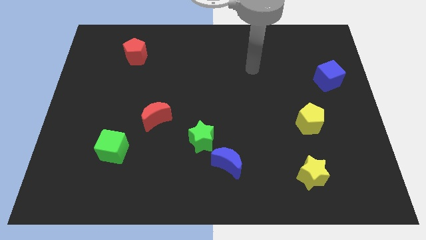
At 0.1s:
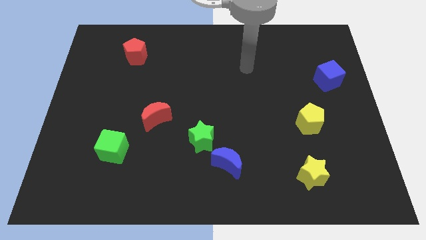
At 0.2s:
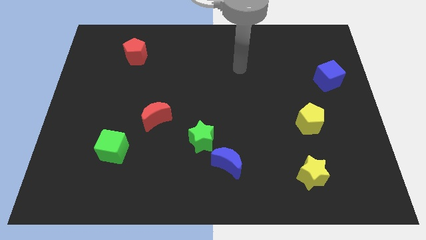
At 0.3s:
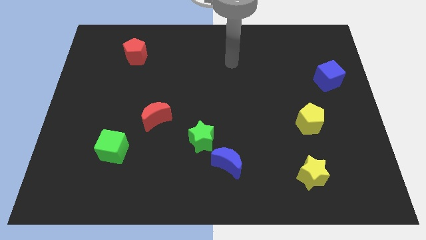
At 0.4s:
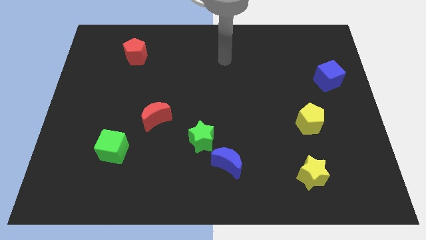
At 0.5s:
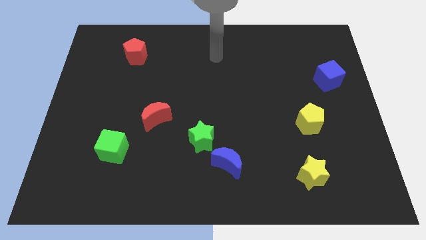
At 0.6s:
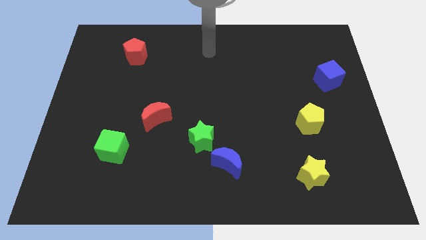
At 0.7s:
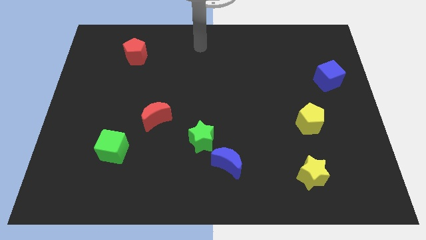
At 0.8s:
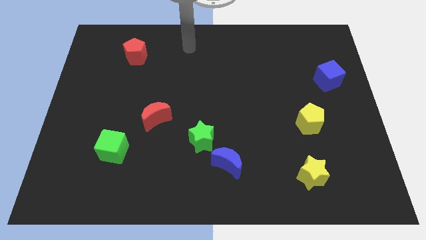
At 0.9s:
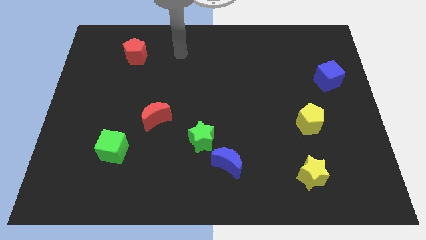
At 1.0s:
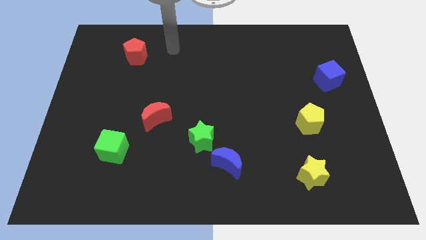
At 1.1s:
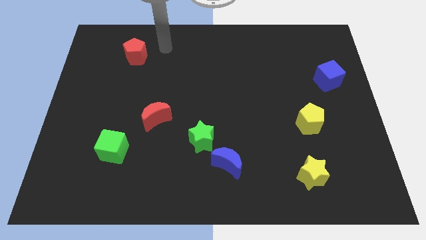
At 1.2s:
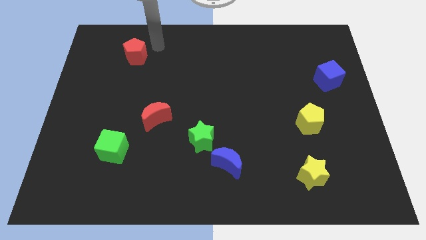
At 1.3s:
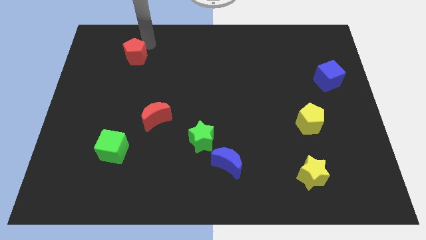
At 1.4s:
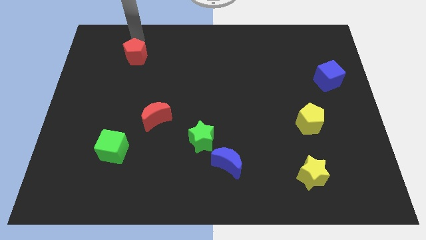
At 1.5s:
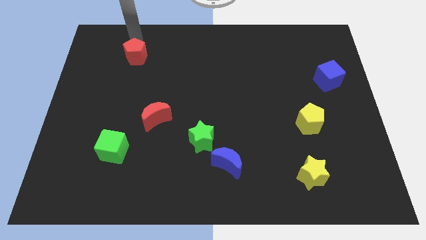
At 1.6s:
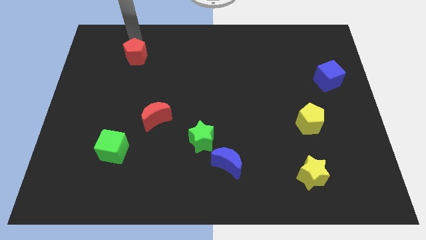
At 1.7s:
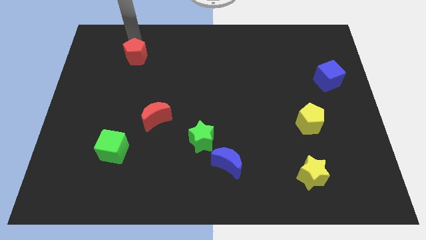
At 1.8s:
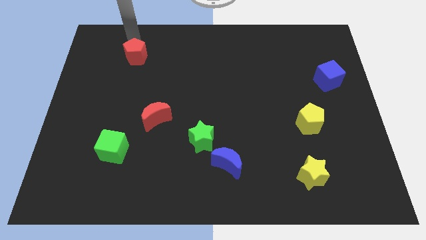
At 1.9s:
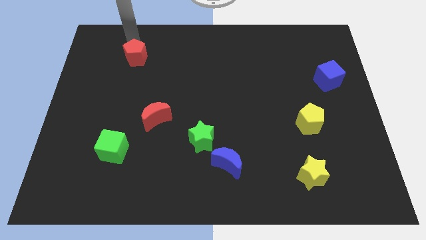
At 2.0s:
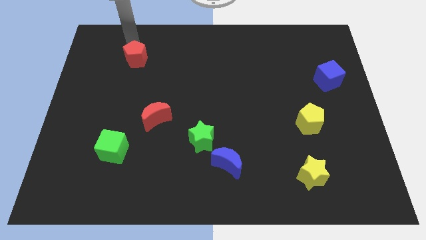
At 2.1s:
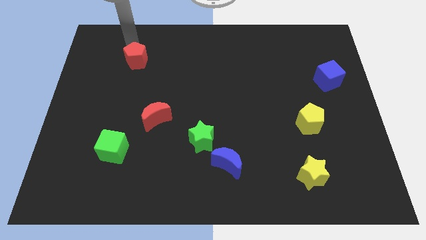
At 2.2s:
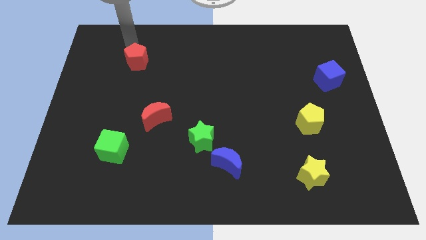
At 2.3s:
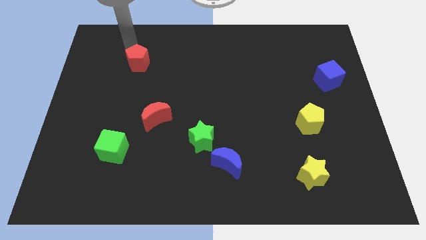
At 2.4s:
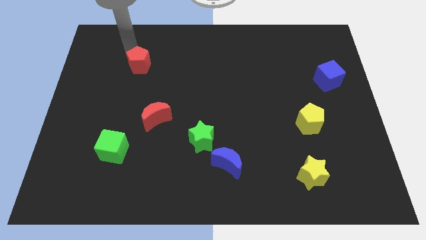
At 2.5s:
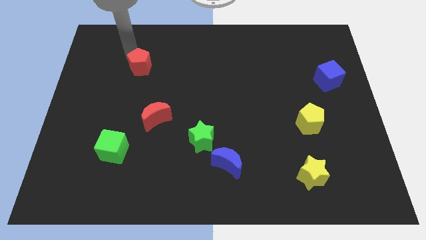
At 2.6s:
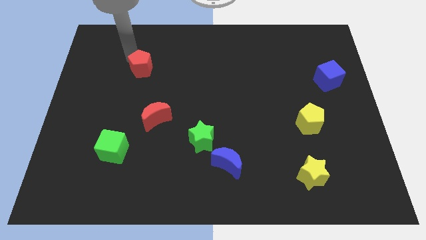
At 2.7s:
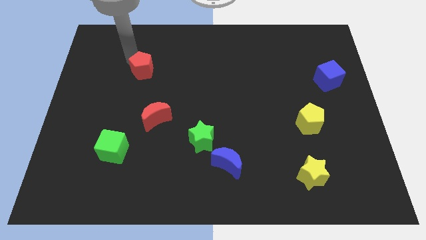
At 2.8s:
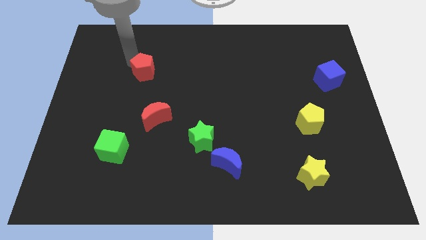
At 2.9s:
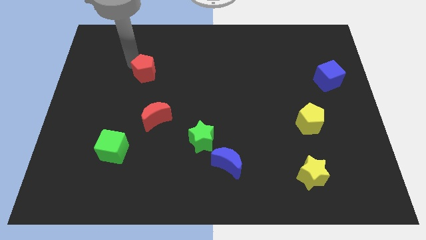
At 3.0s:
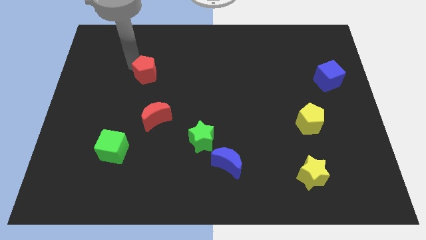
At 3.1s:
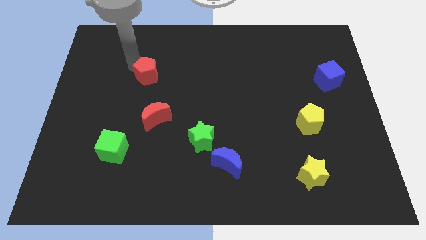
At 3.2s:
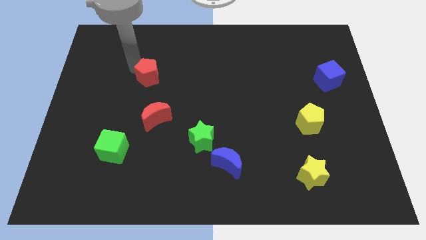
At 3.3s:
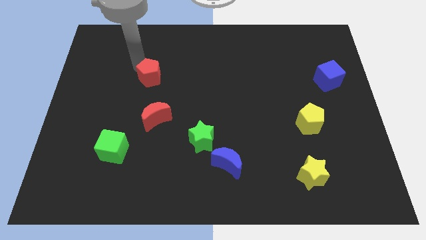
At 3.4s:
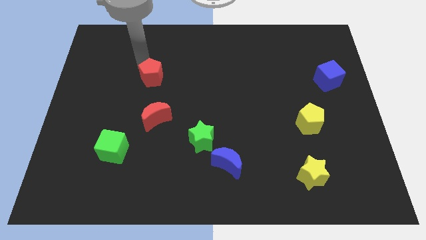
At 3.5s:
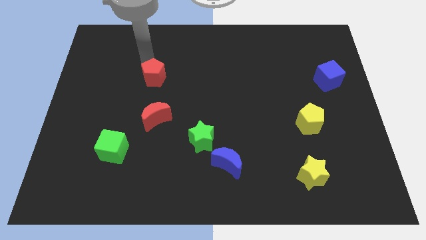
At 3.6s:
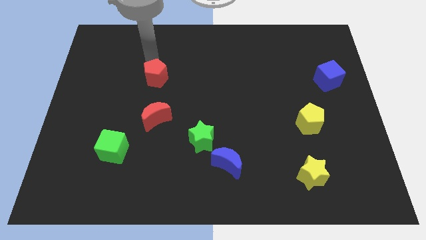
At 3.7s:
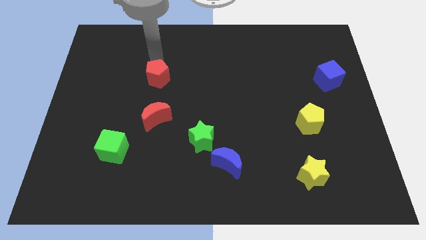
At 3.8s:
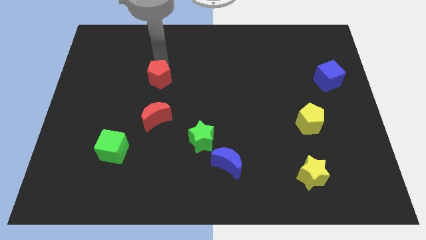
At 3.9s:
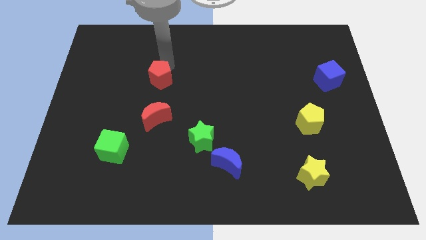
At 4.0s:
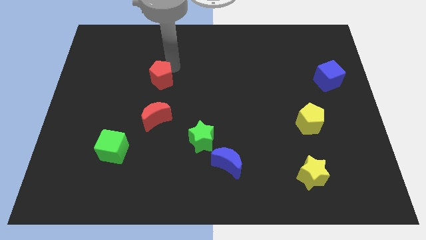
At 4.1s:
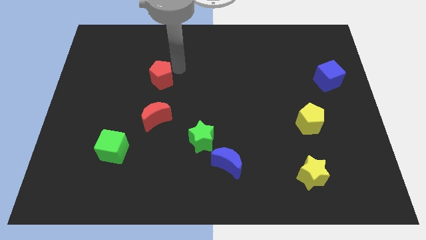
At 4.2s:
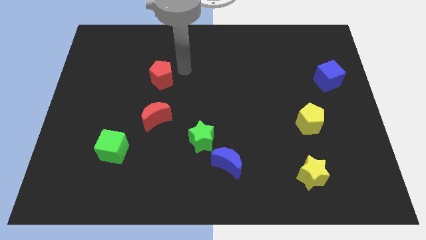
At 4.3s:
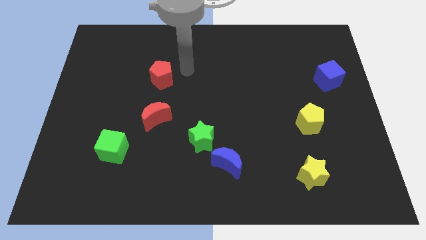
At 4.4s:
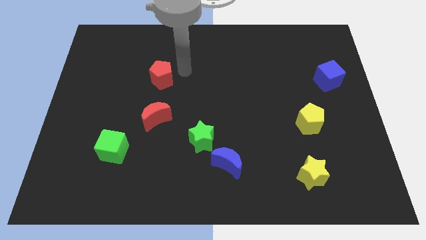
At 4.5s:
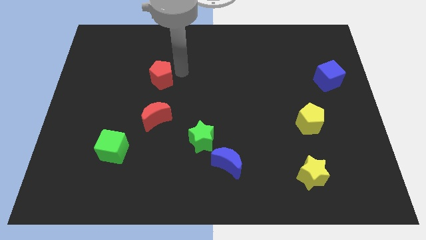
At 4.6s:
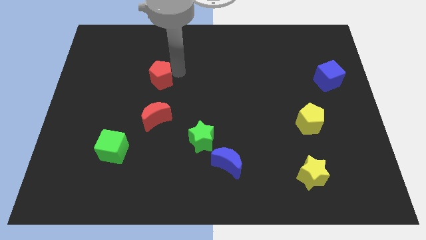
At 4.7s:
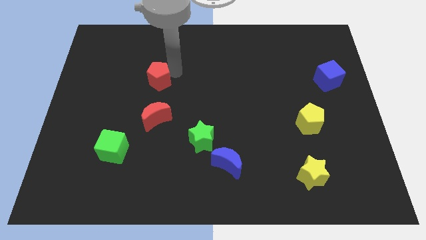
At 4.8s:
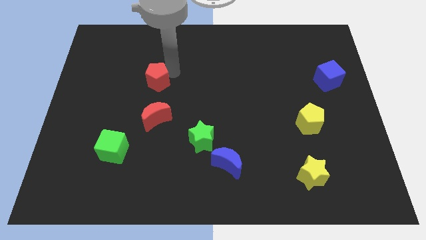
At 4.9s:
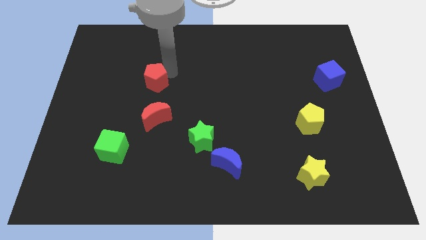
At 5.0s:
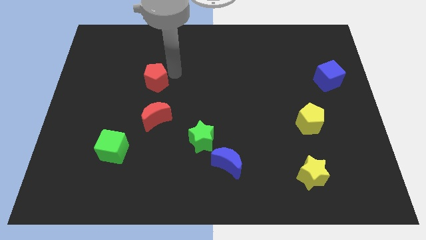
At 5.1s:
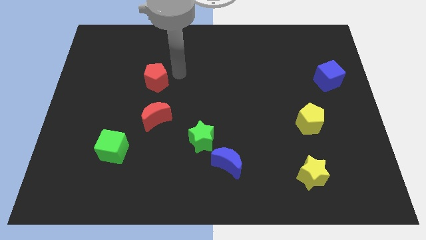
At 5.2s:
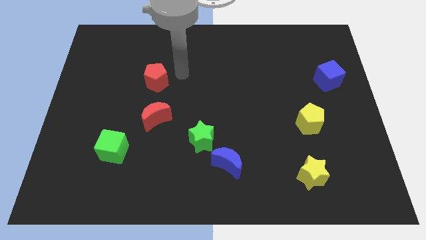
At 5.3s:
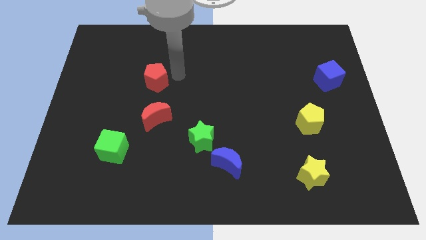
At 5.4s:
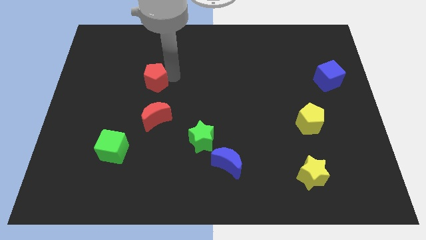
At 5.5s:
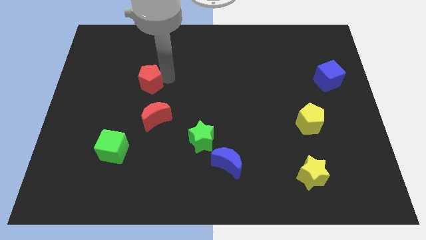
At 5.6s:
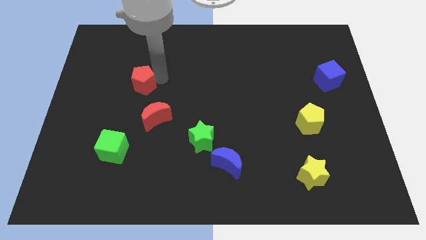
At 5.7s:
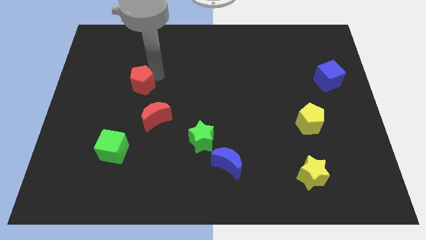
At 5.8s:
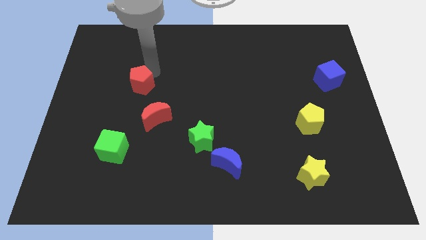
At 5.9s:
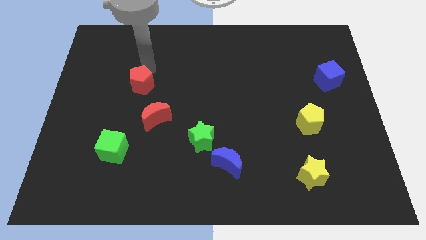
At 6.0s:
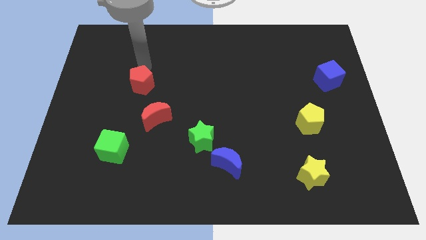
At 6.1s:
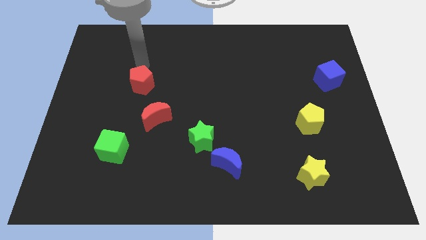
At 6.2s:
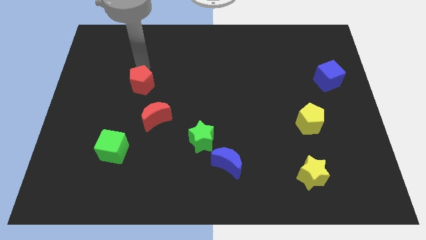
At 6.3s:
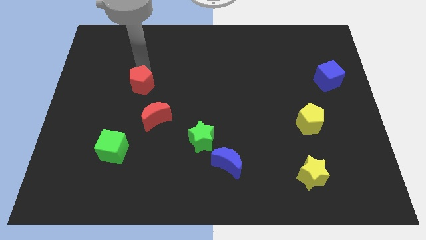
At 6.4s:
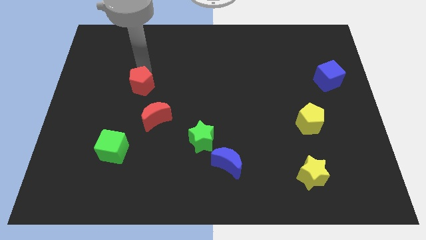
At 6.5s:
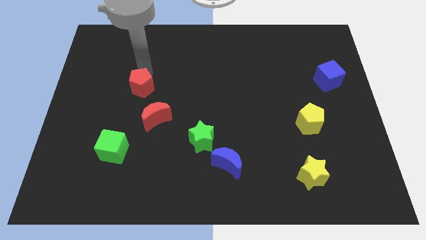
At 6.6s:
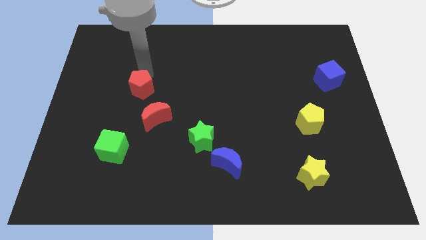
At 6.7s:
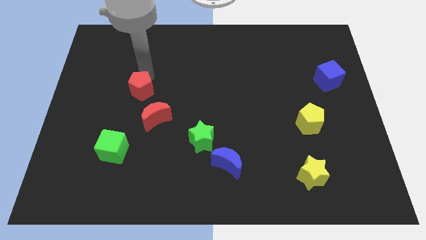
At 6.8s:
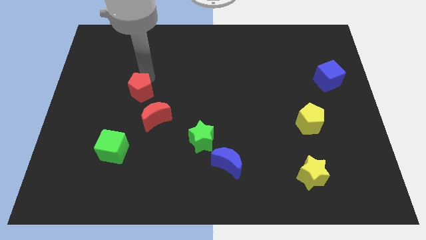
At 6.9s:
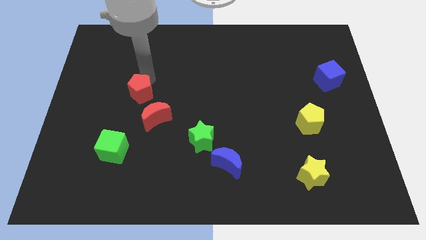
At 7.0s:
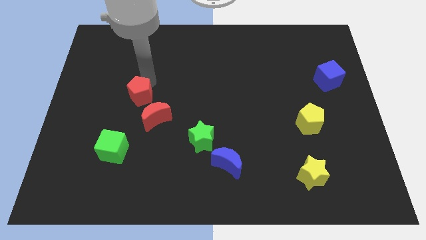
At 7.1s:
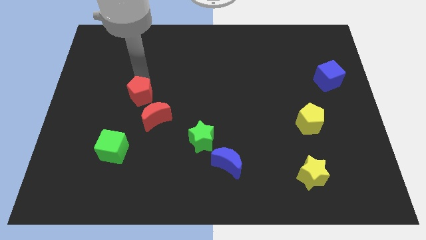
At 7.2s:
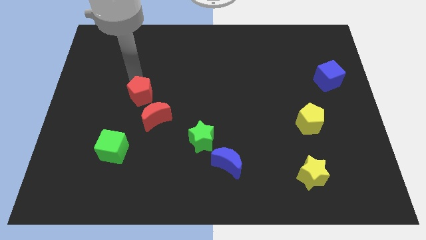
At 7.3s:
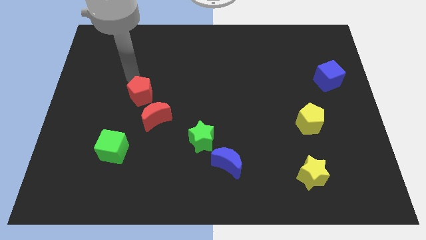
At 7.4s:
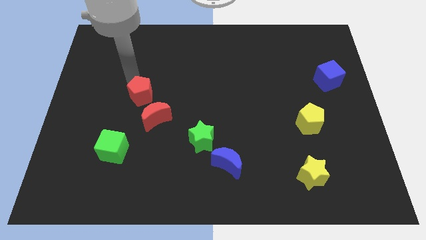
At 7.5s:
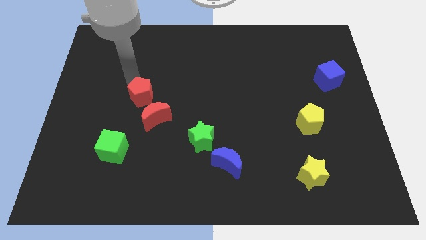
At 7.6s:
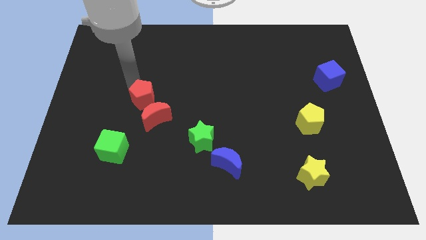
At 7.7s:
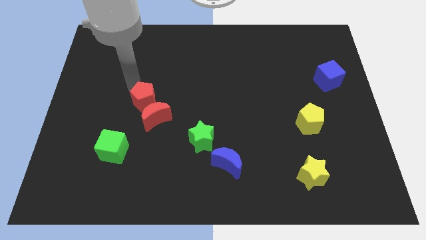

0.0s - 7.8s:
push the red pentagon next to the red moon
